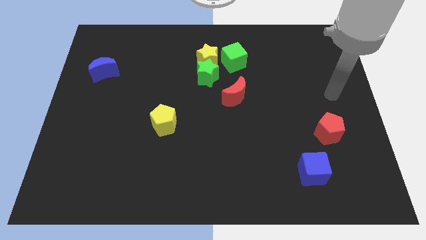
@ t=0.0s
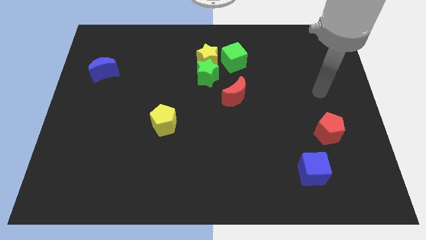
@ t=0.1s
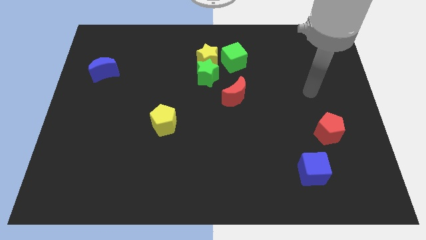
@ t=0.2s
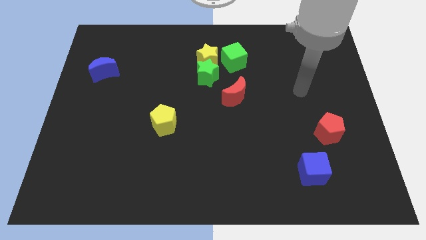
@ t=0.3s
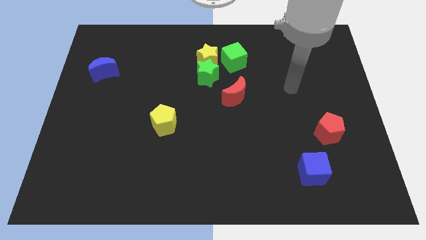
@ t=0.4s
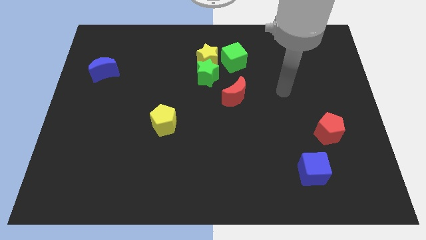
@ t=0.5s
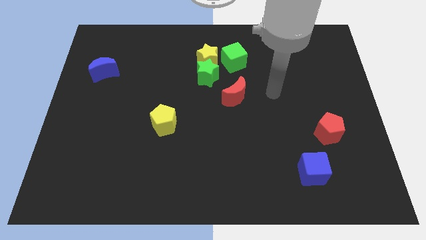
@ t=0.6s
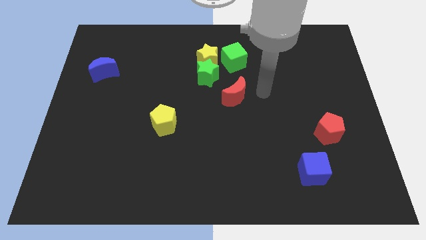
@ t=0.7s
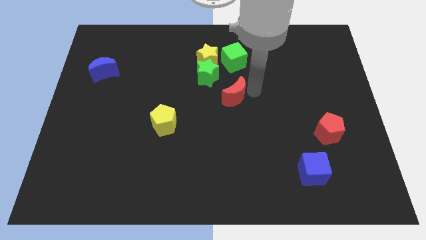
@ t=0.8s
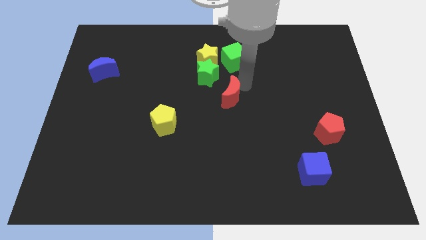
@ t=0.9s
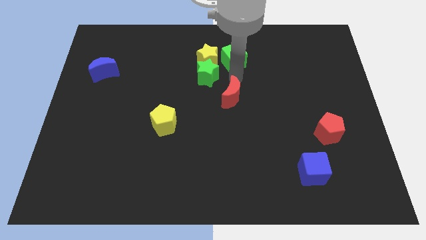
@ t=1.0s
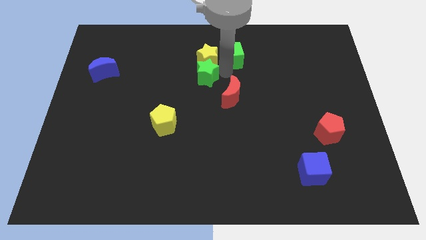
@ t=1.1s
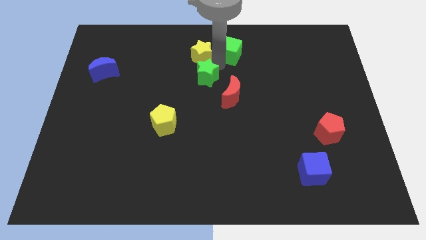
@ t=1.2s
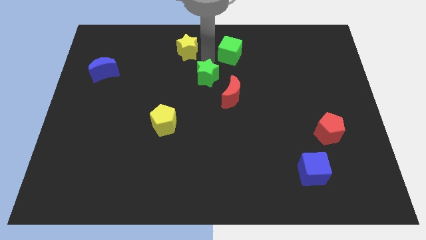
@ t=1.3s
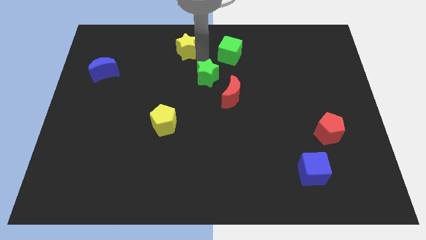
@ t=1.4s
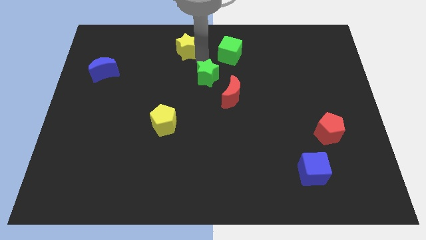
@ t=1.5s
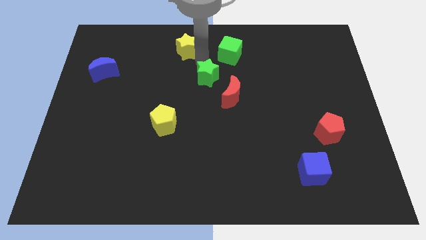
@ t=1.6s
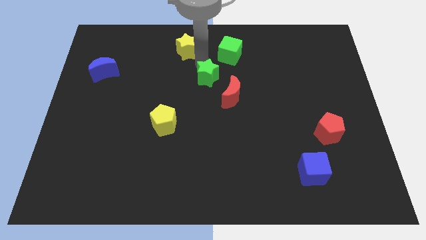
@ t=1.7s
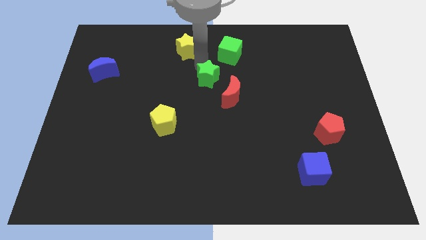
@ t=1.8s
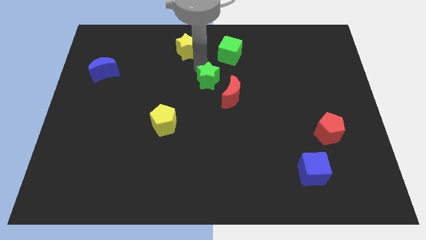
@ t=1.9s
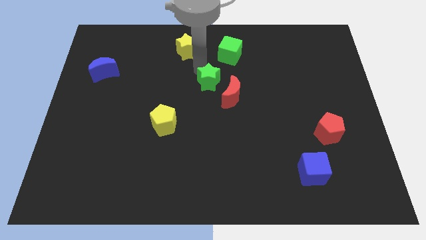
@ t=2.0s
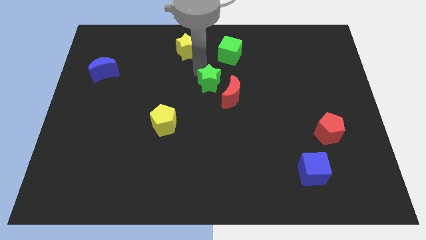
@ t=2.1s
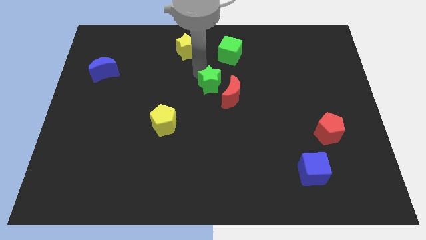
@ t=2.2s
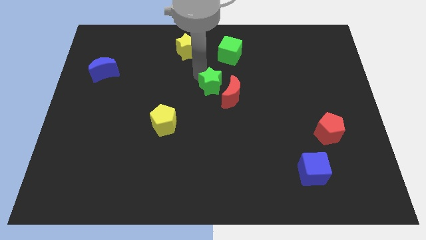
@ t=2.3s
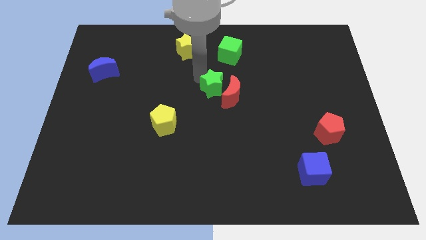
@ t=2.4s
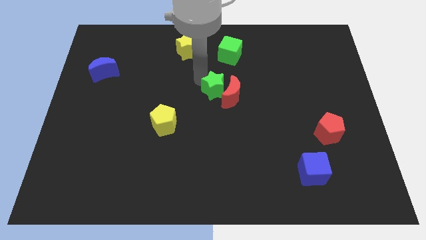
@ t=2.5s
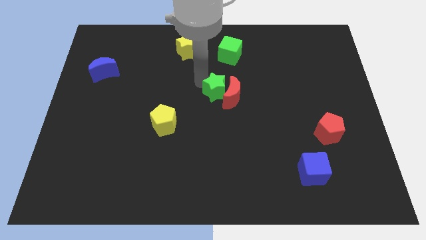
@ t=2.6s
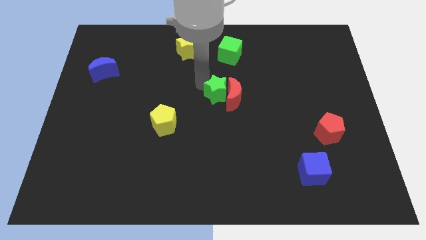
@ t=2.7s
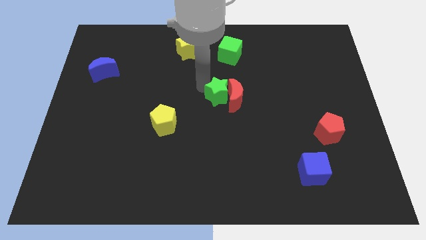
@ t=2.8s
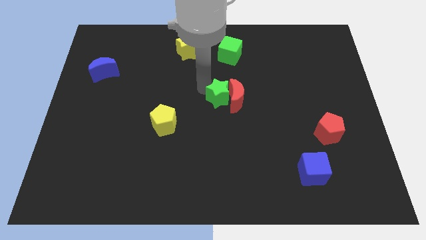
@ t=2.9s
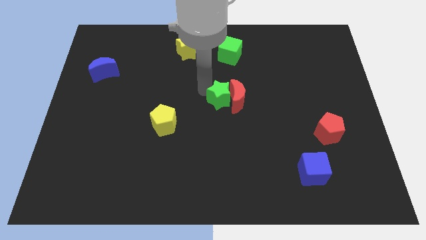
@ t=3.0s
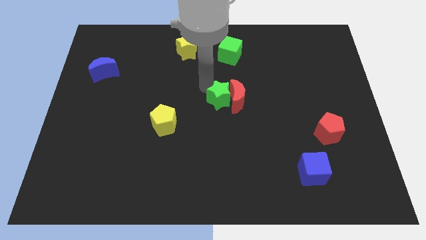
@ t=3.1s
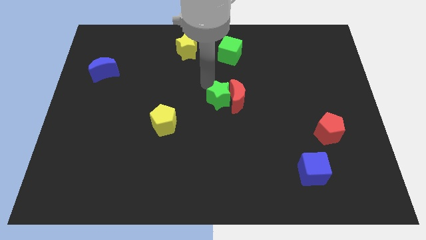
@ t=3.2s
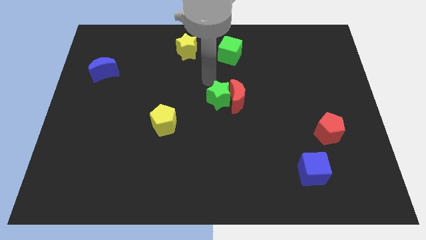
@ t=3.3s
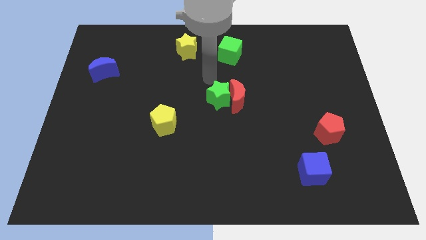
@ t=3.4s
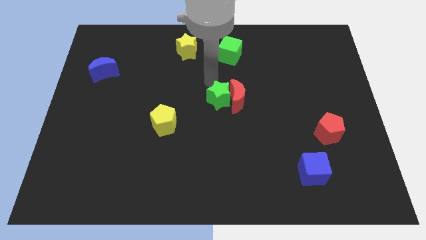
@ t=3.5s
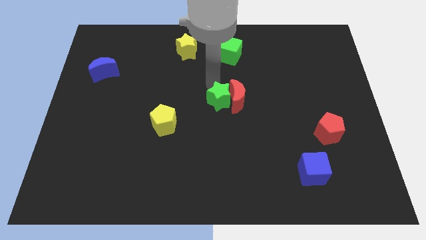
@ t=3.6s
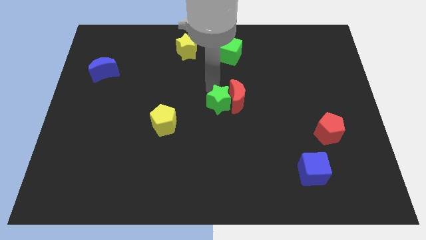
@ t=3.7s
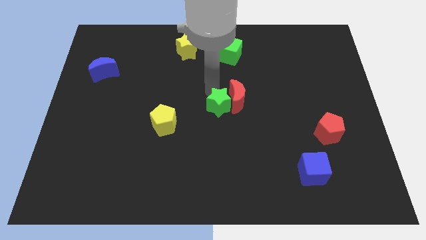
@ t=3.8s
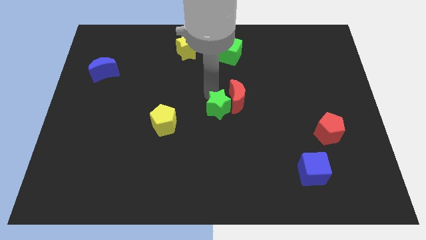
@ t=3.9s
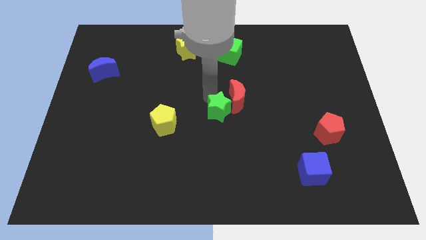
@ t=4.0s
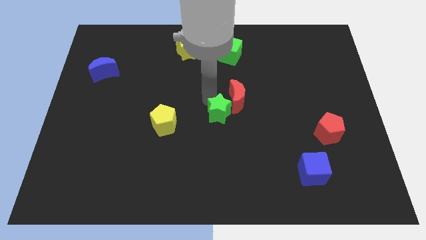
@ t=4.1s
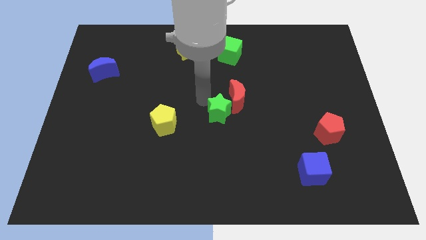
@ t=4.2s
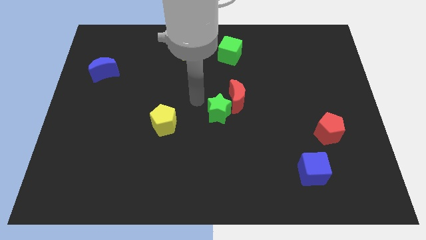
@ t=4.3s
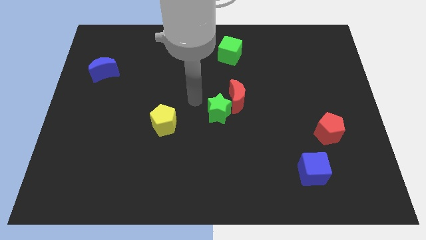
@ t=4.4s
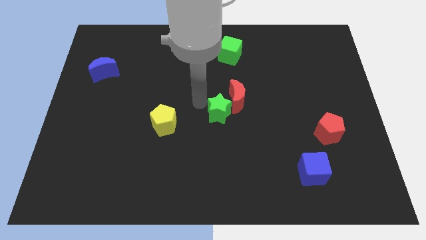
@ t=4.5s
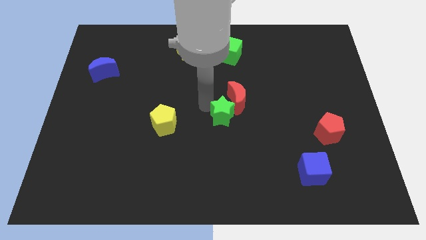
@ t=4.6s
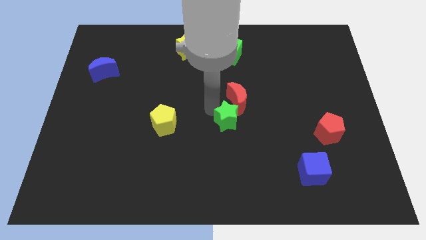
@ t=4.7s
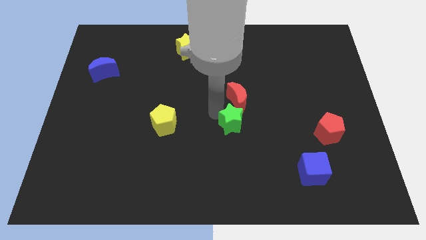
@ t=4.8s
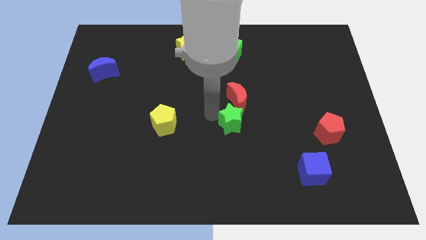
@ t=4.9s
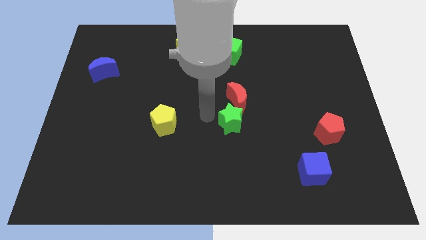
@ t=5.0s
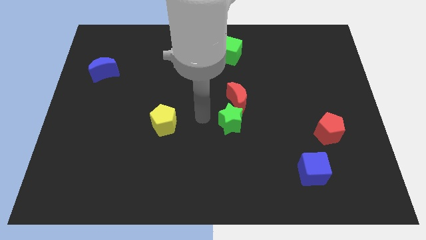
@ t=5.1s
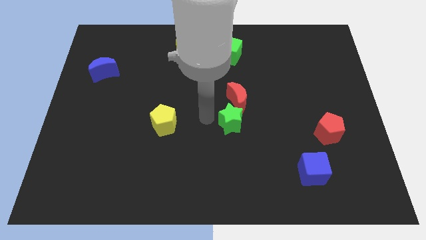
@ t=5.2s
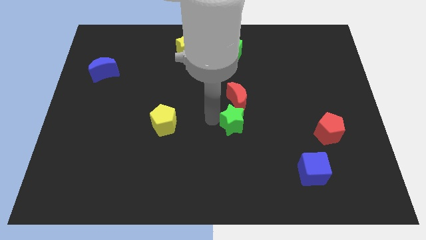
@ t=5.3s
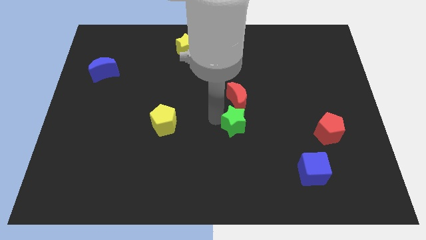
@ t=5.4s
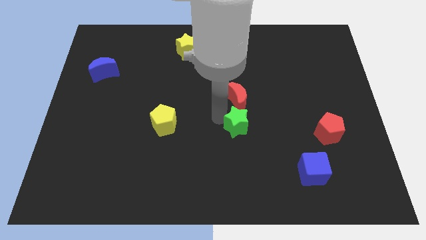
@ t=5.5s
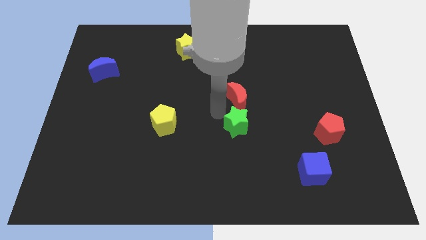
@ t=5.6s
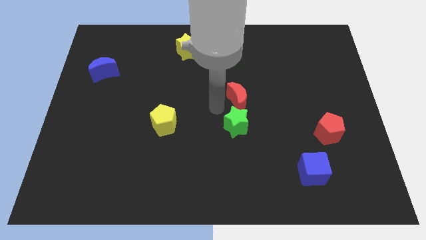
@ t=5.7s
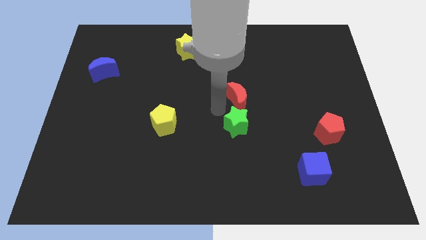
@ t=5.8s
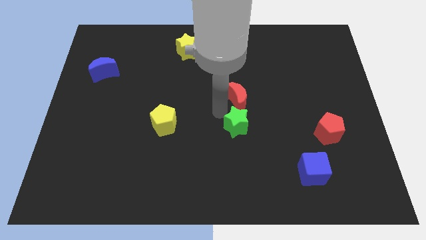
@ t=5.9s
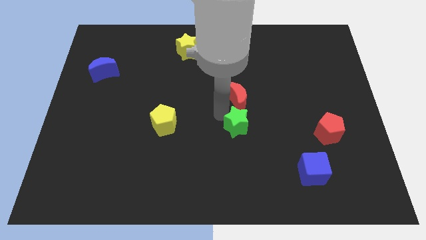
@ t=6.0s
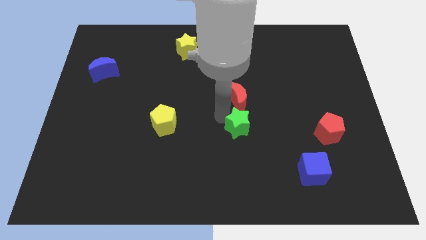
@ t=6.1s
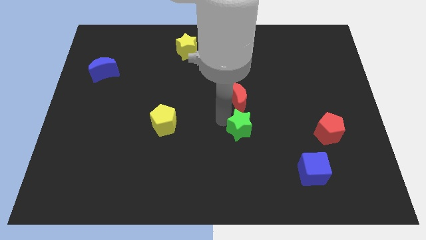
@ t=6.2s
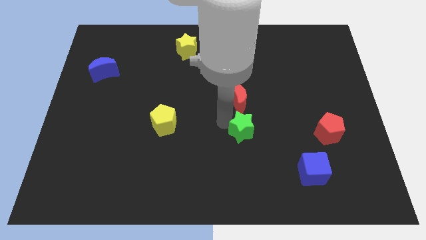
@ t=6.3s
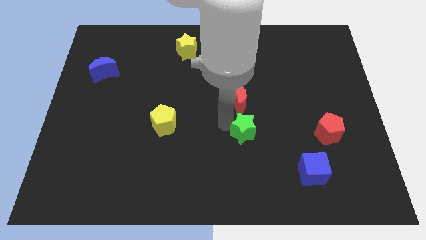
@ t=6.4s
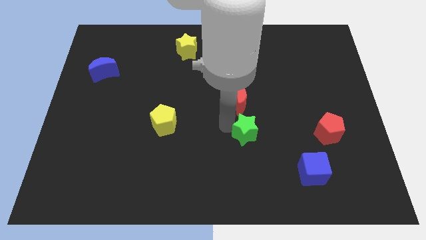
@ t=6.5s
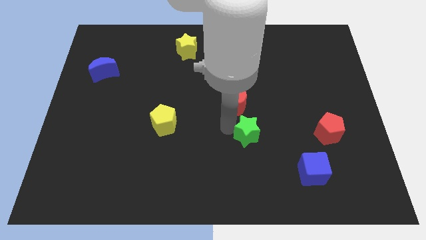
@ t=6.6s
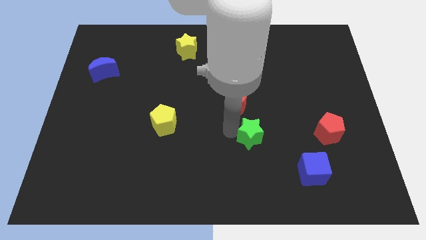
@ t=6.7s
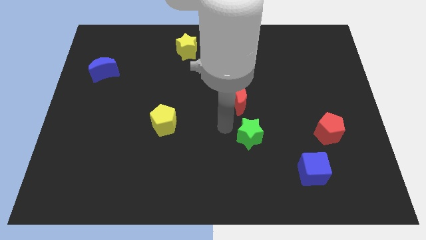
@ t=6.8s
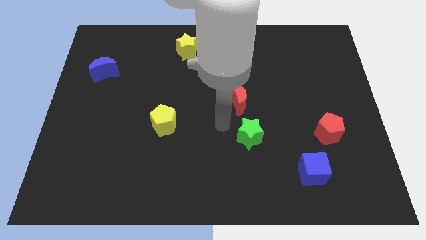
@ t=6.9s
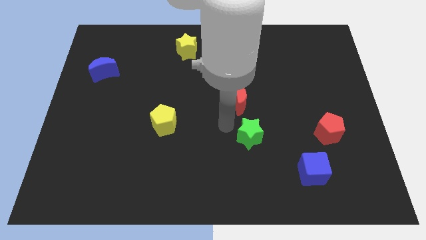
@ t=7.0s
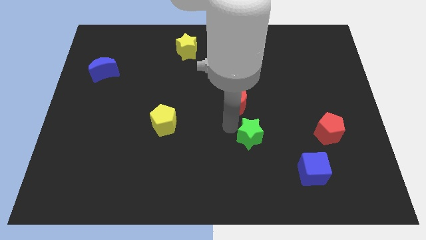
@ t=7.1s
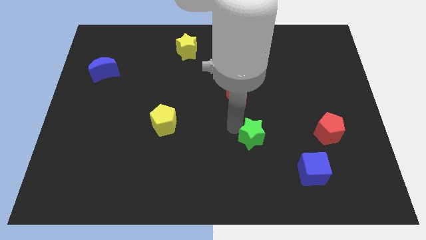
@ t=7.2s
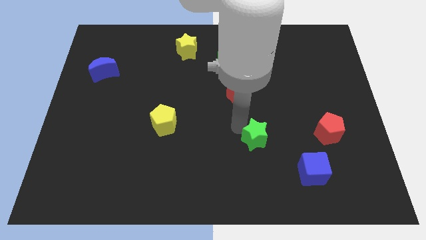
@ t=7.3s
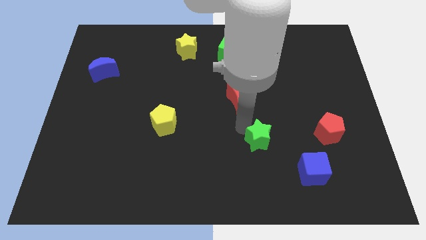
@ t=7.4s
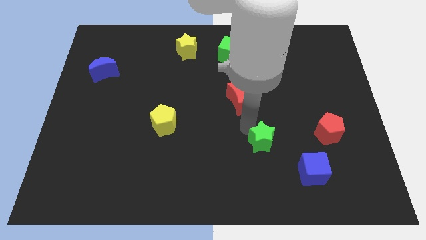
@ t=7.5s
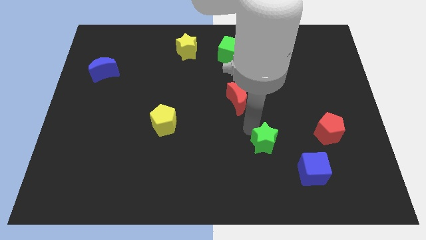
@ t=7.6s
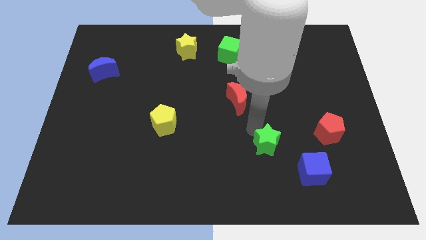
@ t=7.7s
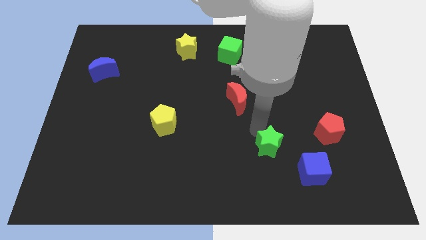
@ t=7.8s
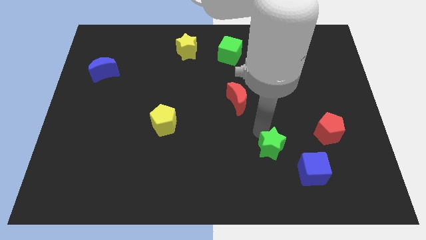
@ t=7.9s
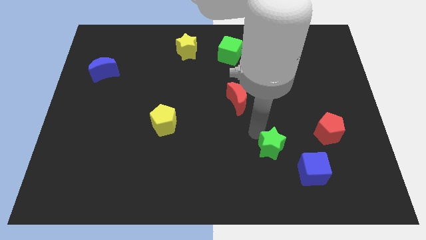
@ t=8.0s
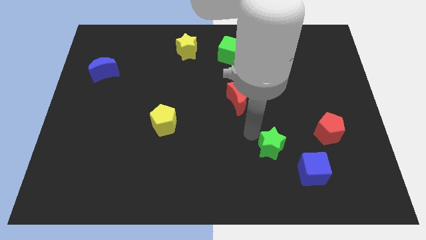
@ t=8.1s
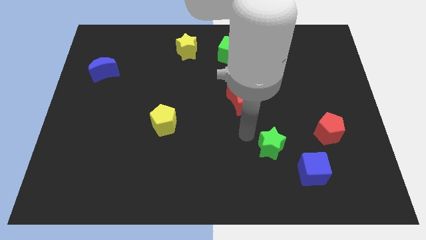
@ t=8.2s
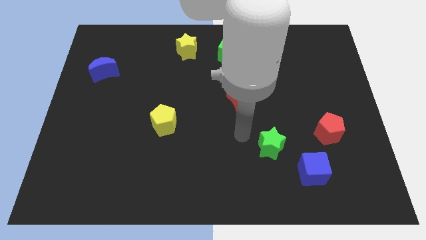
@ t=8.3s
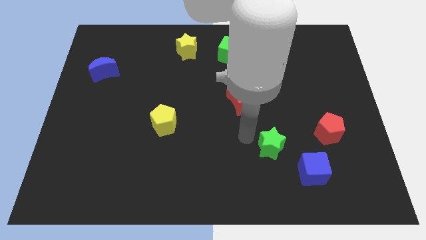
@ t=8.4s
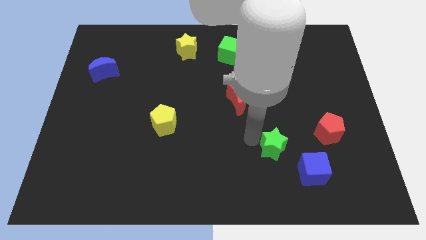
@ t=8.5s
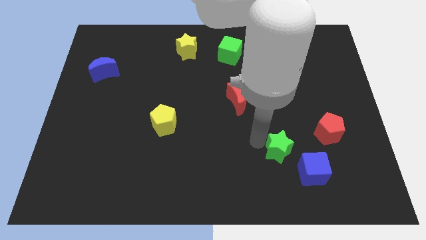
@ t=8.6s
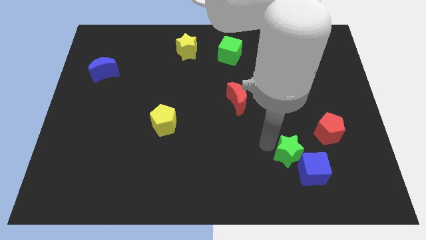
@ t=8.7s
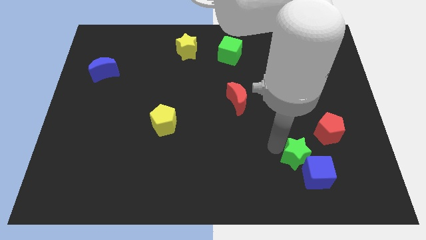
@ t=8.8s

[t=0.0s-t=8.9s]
slide the green star to the blue cube
